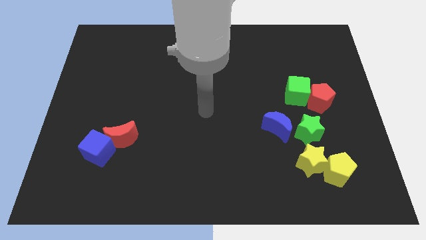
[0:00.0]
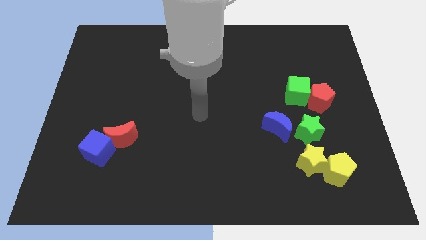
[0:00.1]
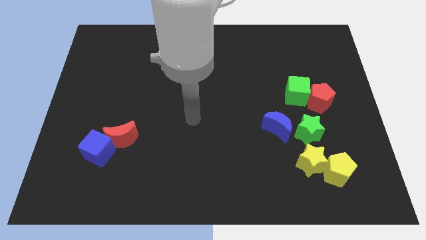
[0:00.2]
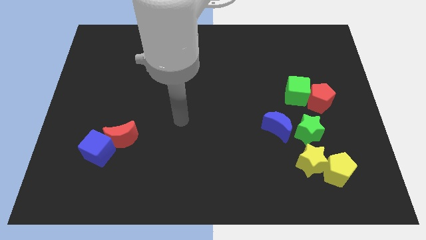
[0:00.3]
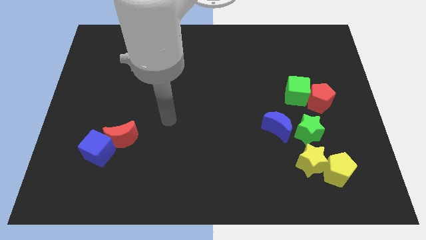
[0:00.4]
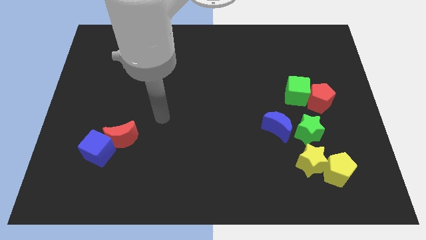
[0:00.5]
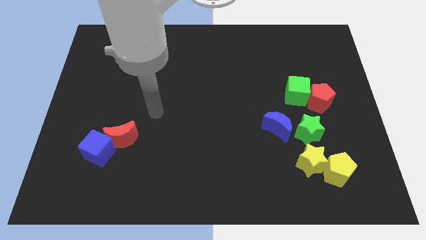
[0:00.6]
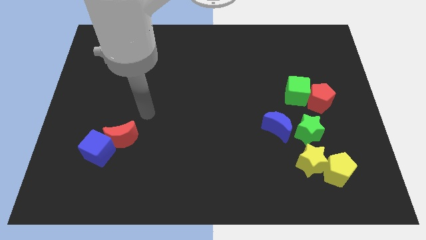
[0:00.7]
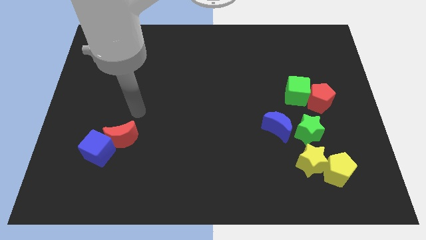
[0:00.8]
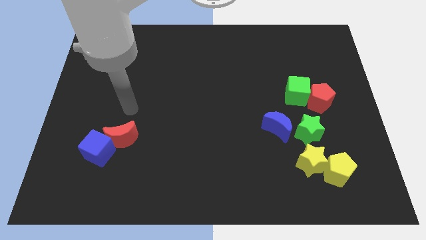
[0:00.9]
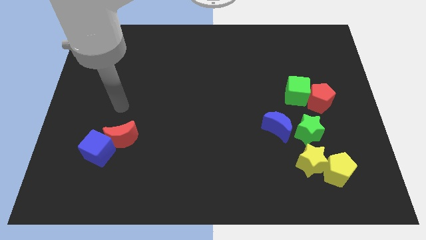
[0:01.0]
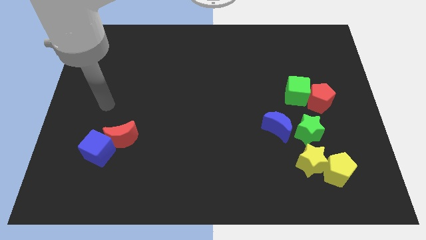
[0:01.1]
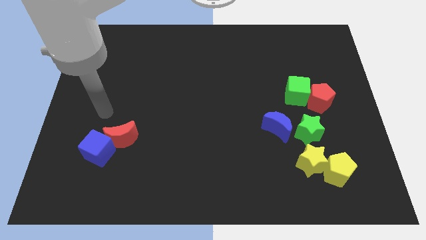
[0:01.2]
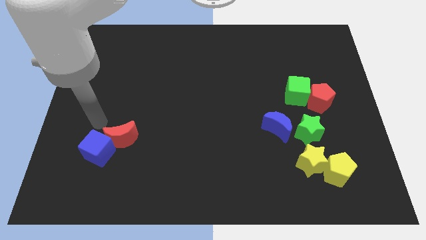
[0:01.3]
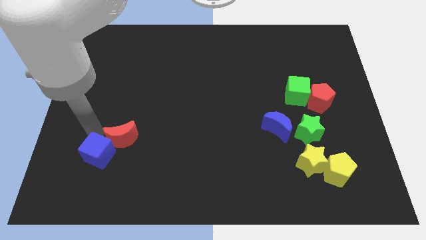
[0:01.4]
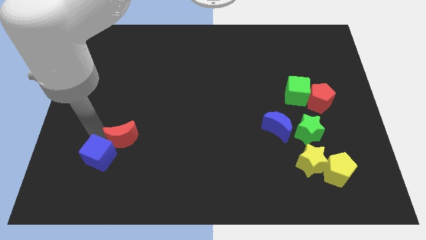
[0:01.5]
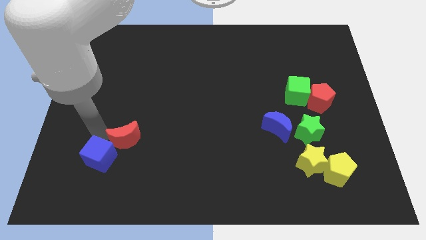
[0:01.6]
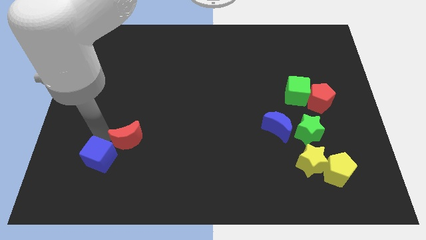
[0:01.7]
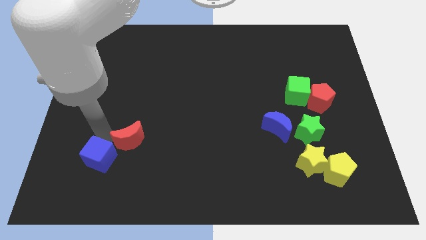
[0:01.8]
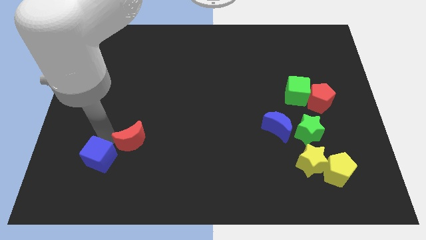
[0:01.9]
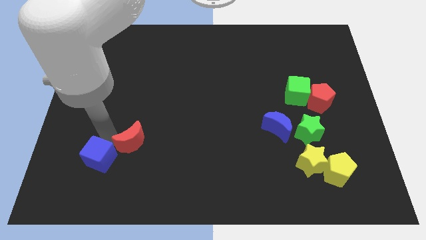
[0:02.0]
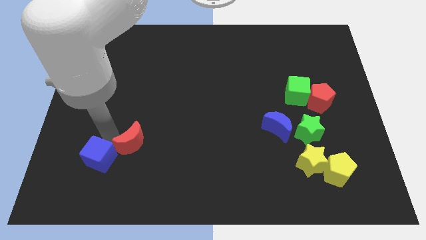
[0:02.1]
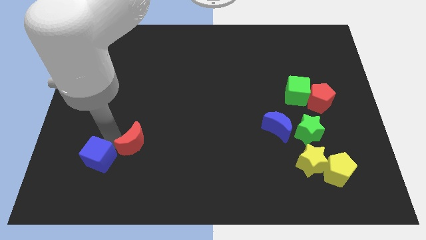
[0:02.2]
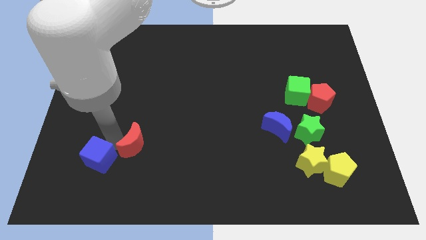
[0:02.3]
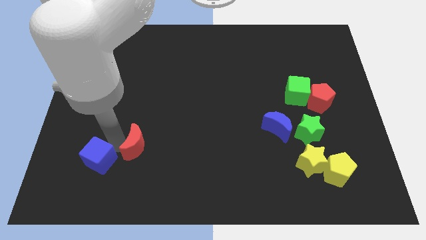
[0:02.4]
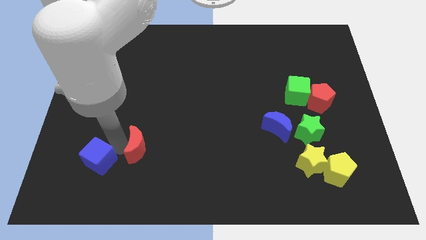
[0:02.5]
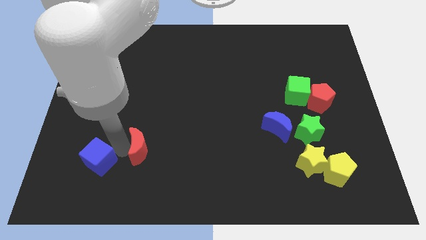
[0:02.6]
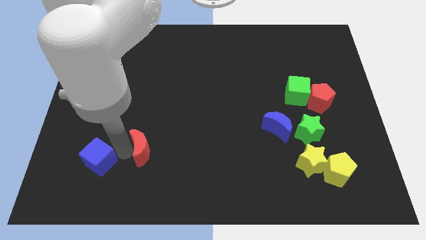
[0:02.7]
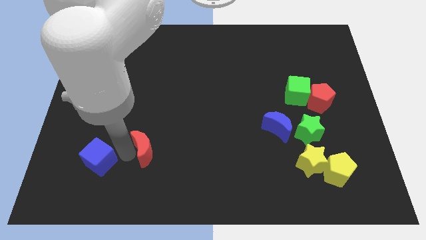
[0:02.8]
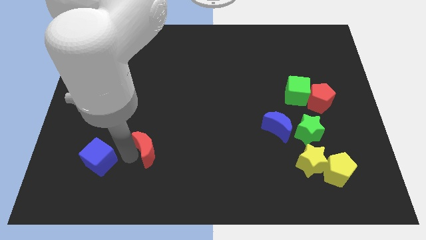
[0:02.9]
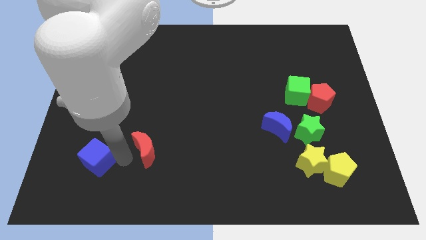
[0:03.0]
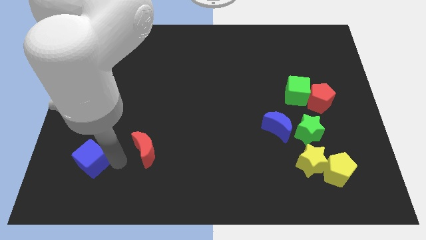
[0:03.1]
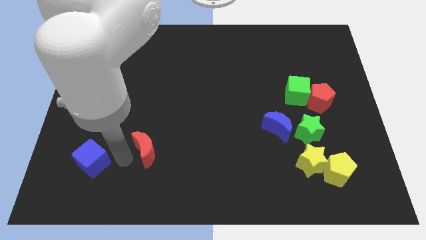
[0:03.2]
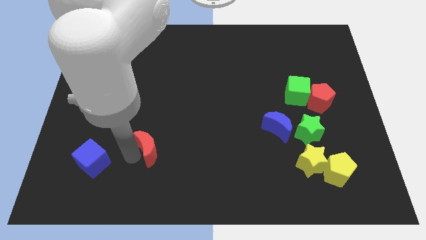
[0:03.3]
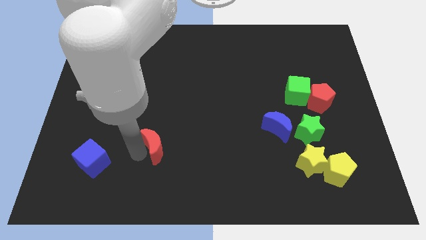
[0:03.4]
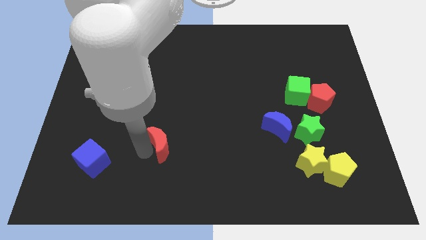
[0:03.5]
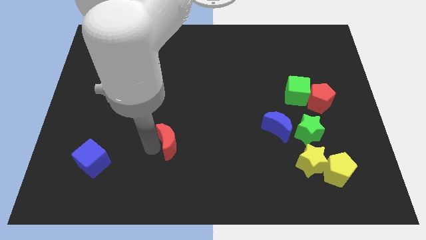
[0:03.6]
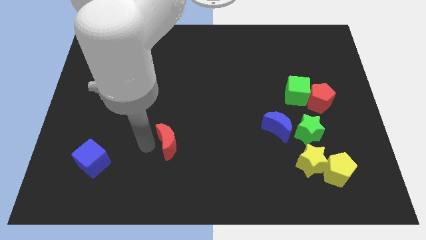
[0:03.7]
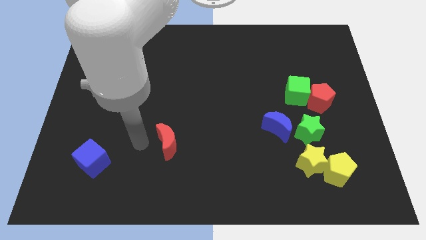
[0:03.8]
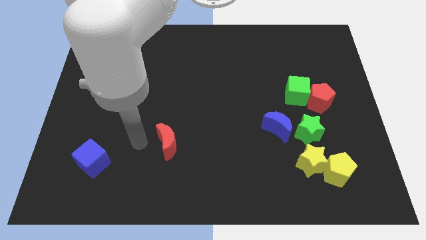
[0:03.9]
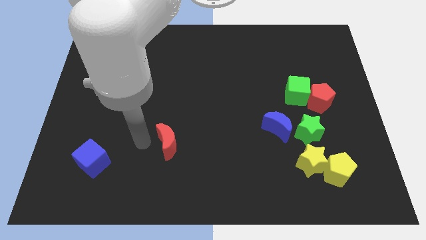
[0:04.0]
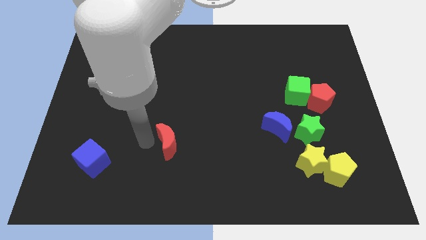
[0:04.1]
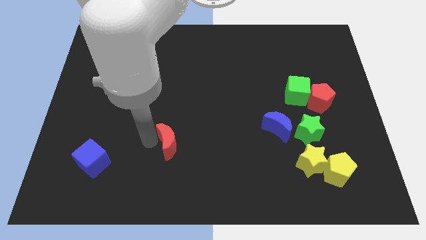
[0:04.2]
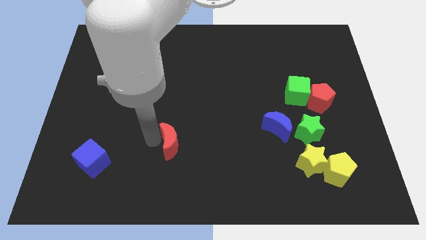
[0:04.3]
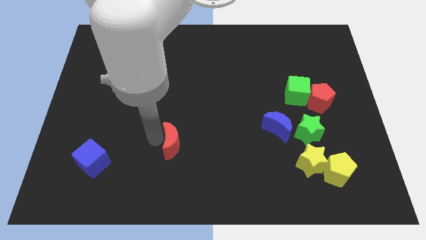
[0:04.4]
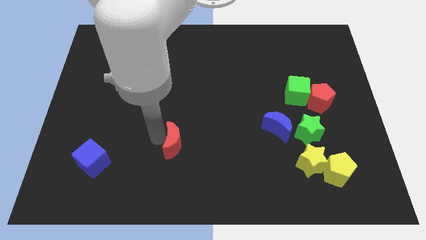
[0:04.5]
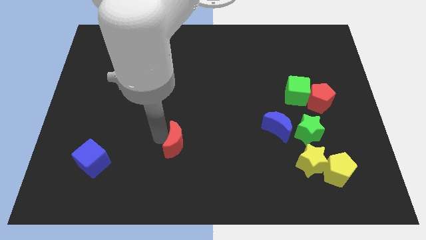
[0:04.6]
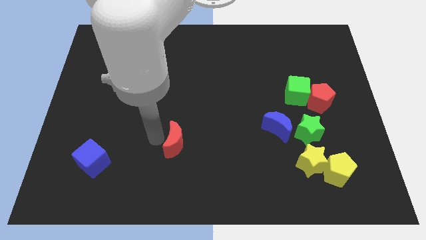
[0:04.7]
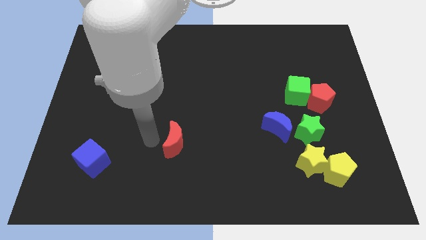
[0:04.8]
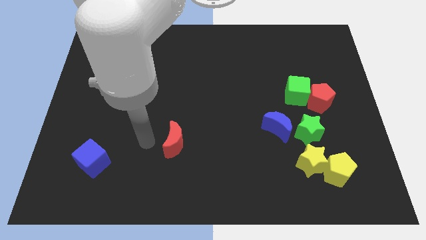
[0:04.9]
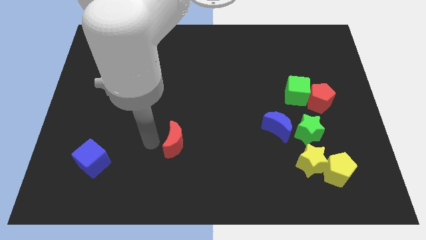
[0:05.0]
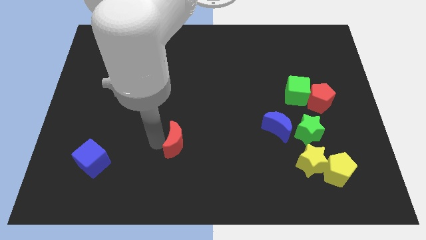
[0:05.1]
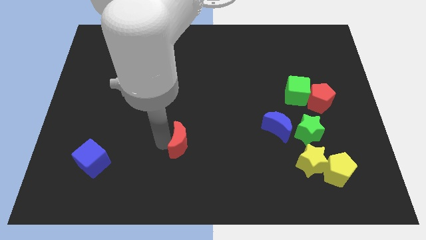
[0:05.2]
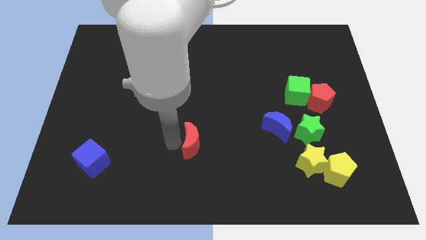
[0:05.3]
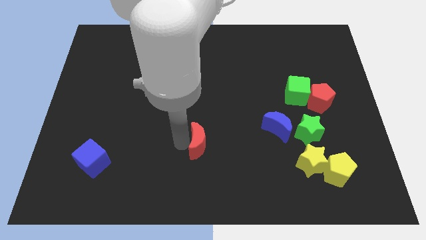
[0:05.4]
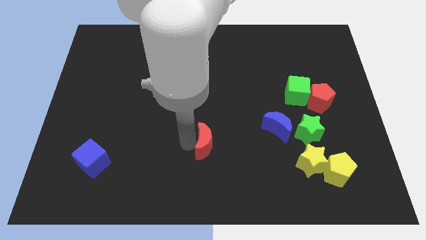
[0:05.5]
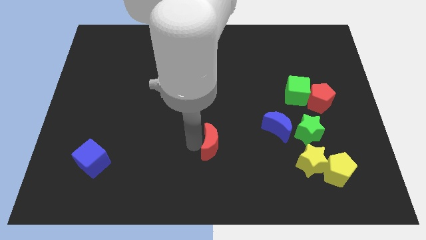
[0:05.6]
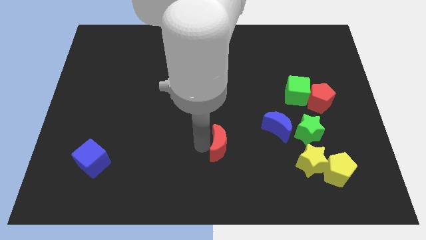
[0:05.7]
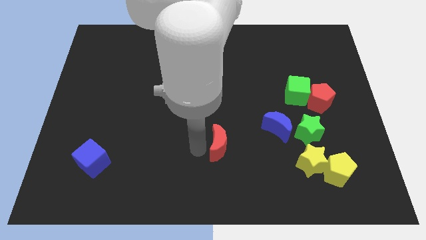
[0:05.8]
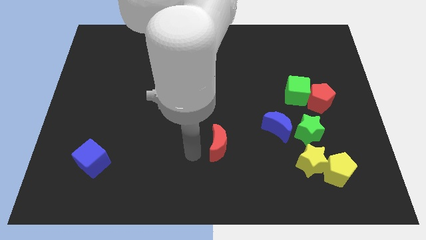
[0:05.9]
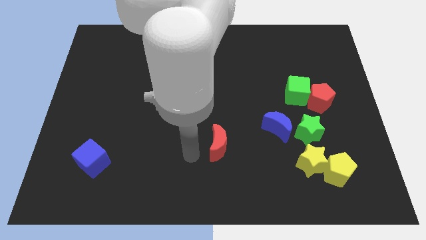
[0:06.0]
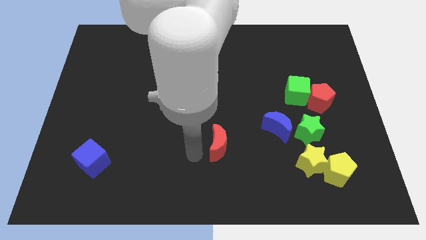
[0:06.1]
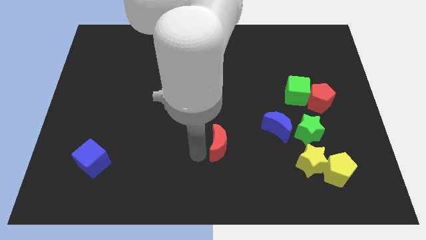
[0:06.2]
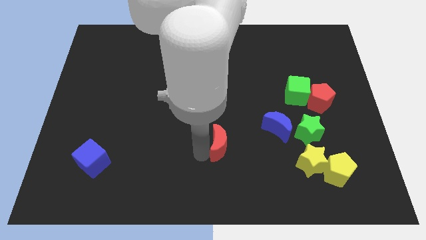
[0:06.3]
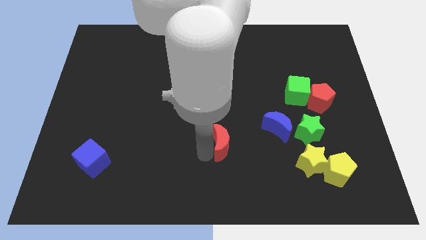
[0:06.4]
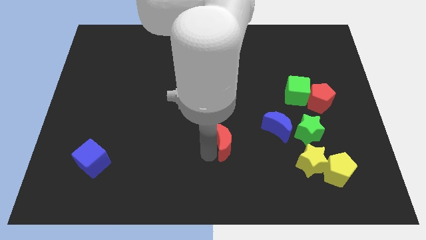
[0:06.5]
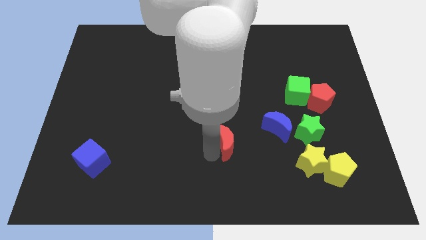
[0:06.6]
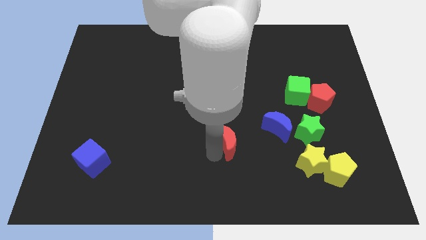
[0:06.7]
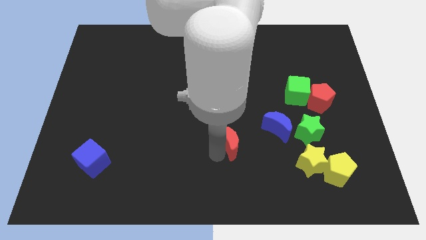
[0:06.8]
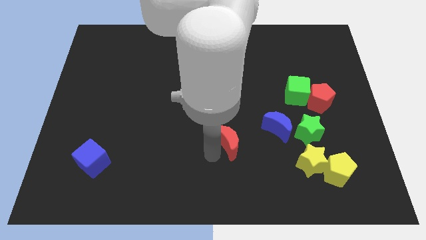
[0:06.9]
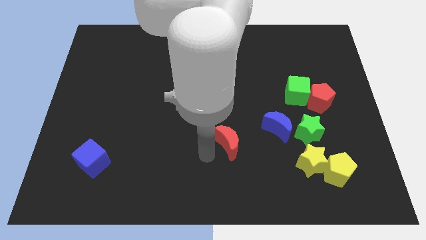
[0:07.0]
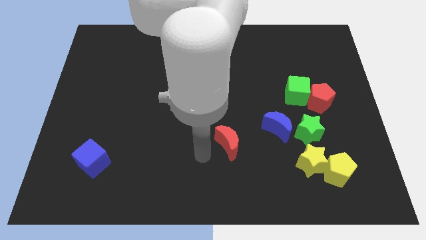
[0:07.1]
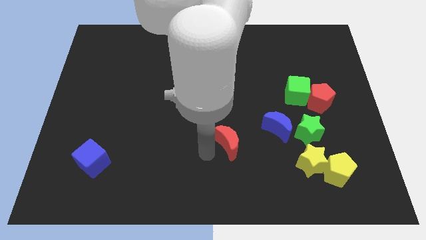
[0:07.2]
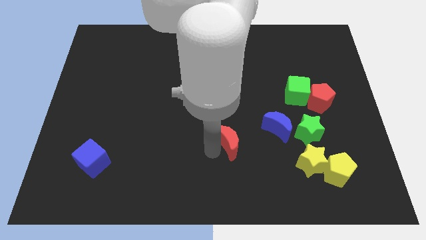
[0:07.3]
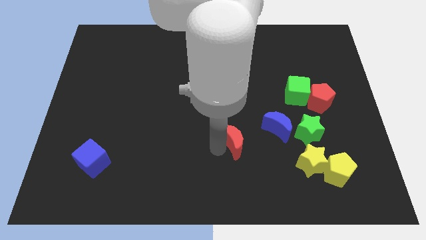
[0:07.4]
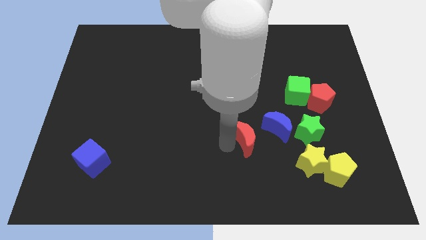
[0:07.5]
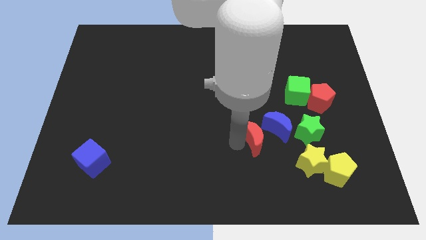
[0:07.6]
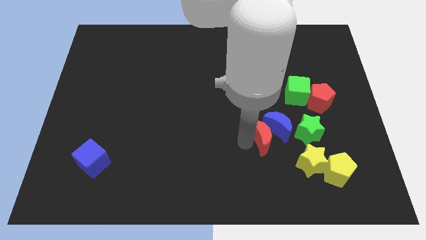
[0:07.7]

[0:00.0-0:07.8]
slide the red moon close to the blue moon
